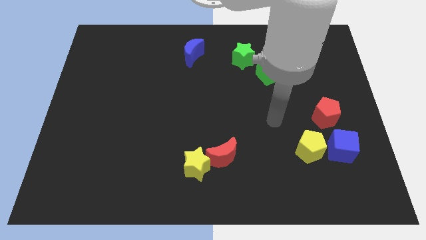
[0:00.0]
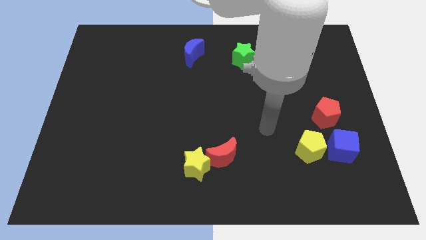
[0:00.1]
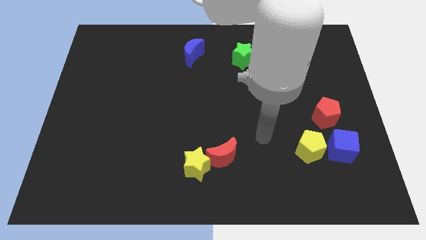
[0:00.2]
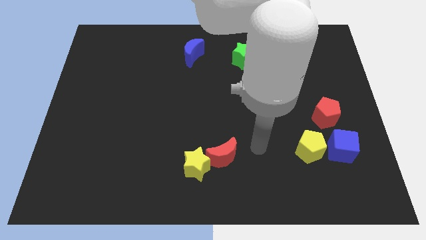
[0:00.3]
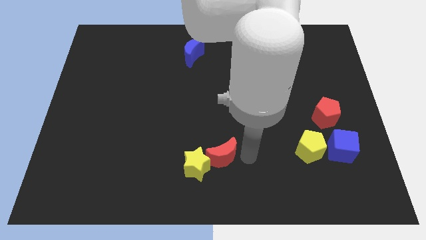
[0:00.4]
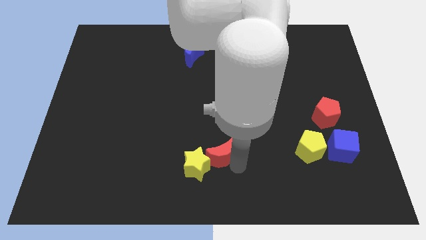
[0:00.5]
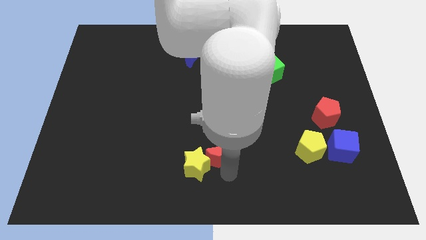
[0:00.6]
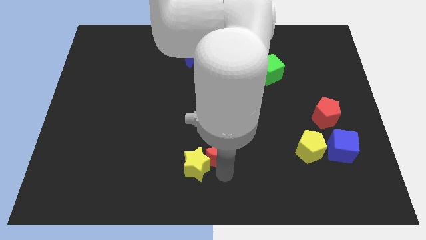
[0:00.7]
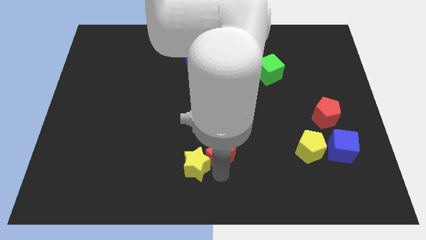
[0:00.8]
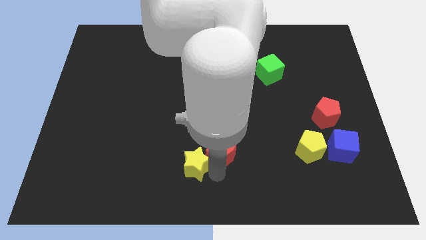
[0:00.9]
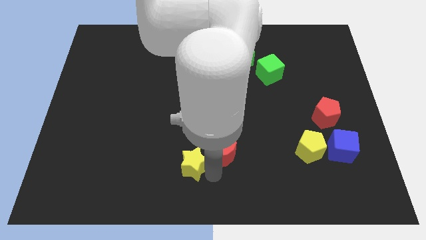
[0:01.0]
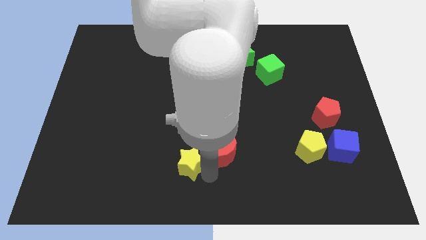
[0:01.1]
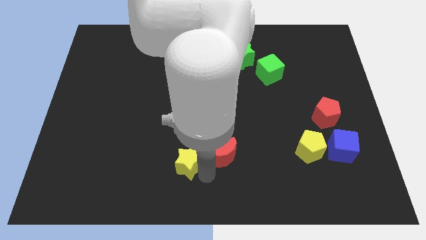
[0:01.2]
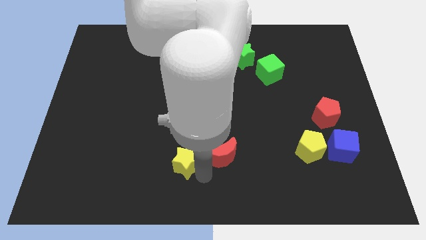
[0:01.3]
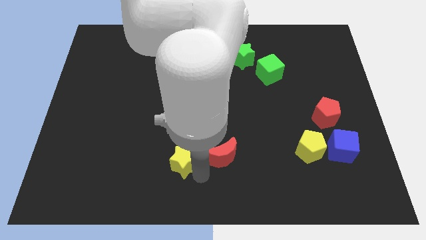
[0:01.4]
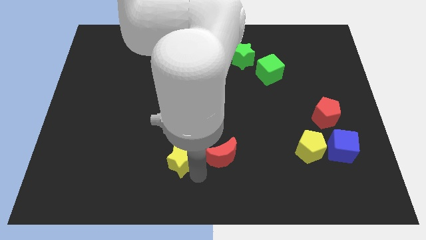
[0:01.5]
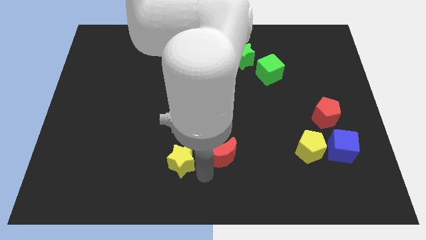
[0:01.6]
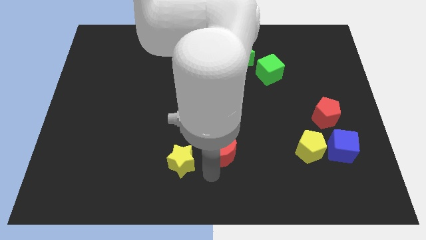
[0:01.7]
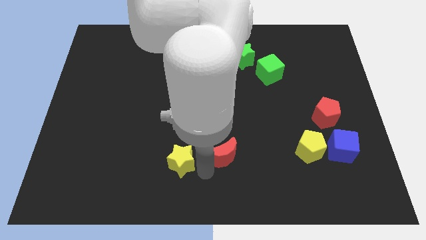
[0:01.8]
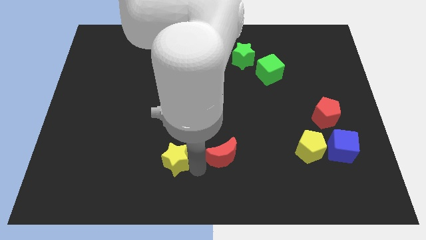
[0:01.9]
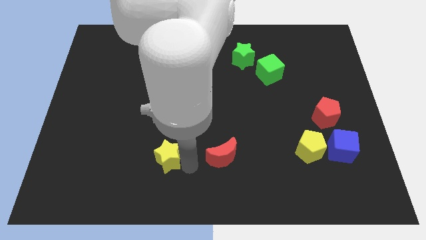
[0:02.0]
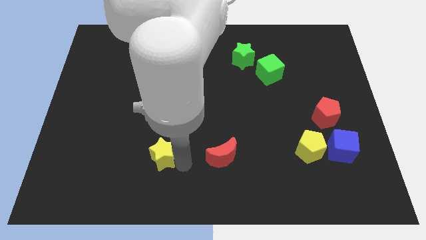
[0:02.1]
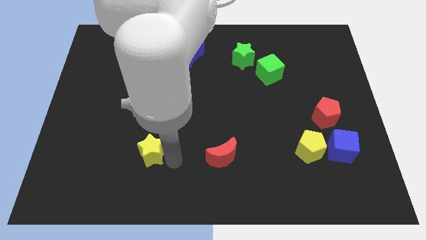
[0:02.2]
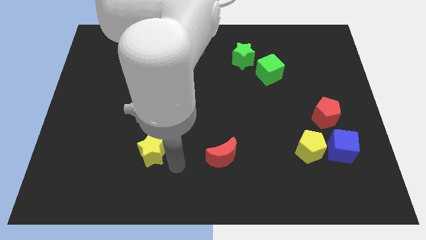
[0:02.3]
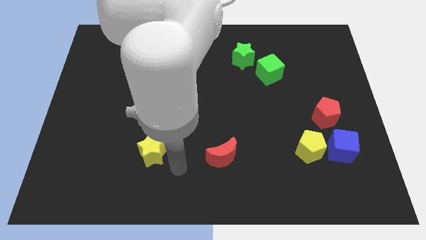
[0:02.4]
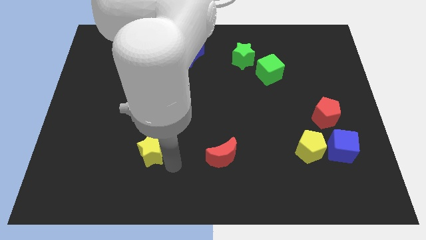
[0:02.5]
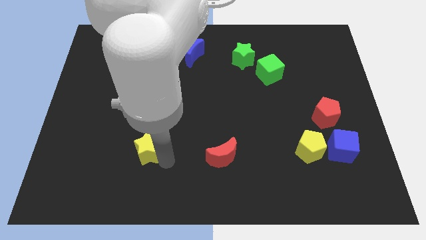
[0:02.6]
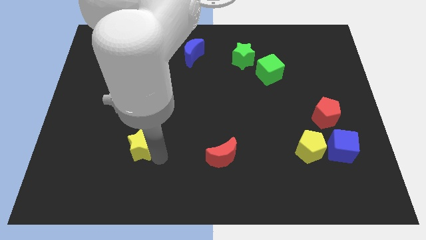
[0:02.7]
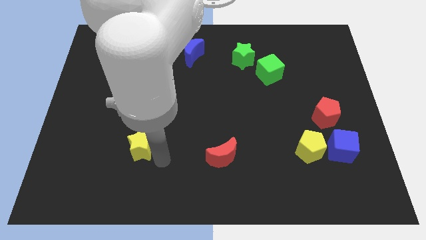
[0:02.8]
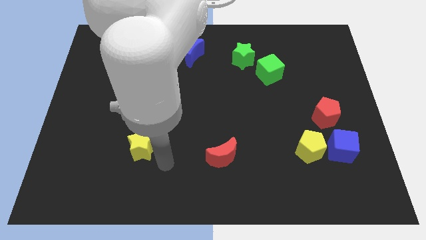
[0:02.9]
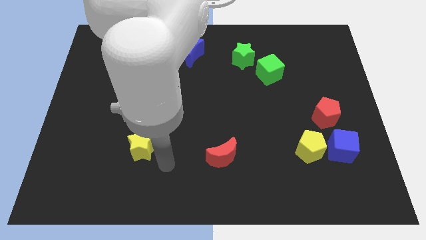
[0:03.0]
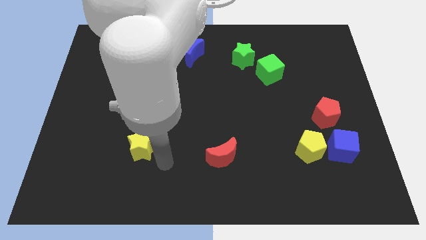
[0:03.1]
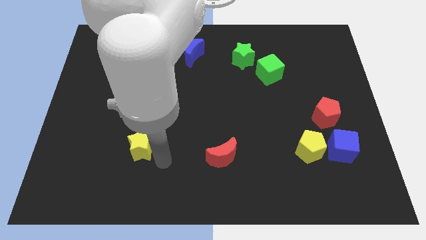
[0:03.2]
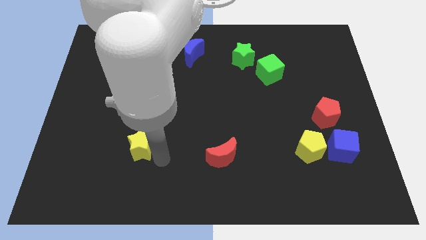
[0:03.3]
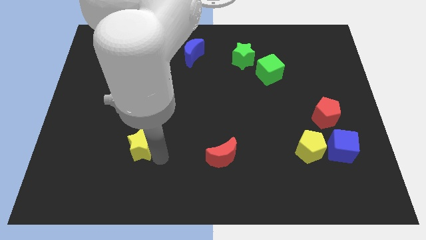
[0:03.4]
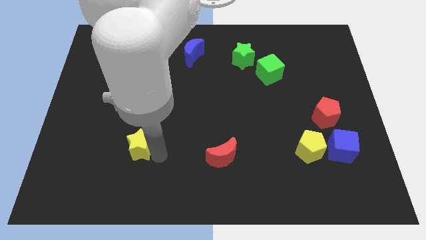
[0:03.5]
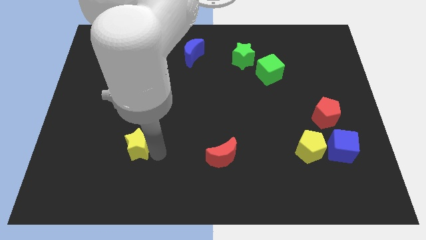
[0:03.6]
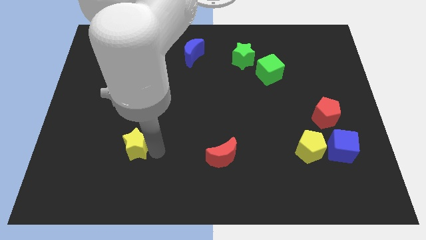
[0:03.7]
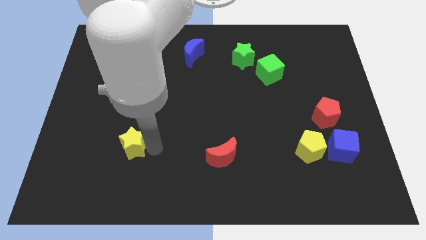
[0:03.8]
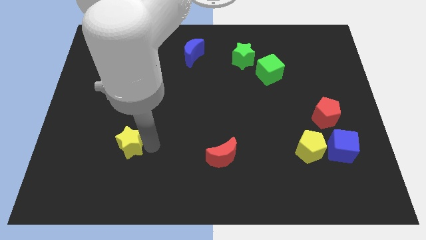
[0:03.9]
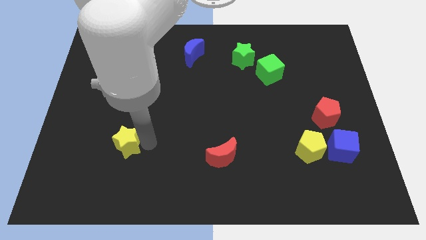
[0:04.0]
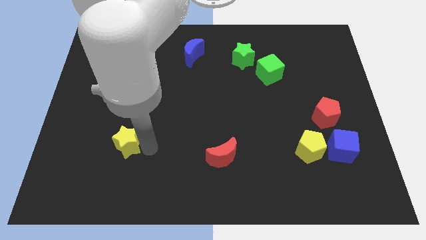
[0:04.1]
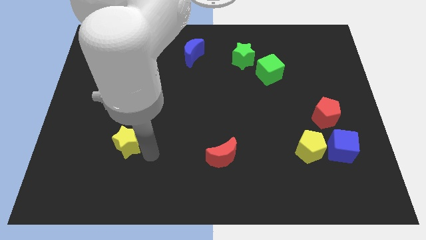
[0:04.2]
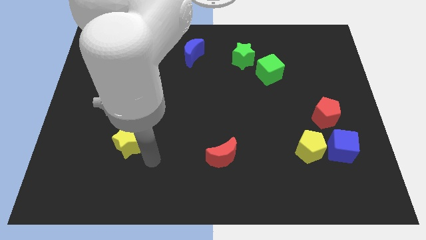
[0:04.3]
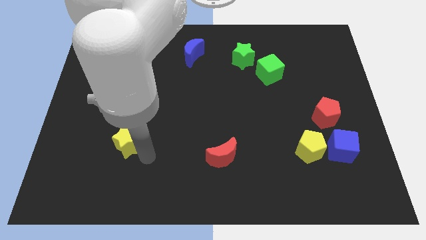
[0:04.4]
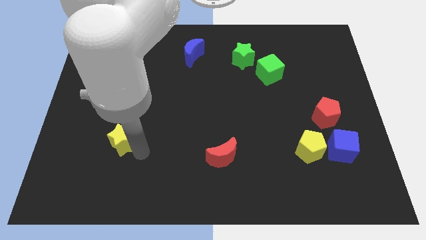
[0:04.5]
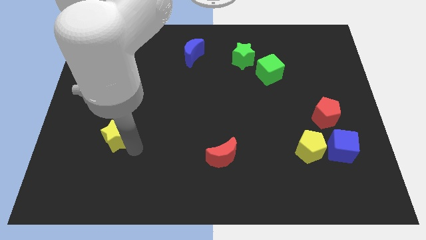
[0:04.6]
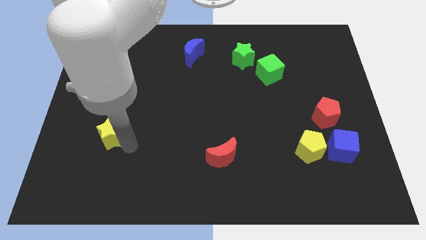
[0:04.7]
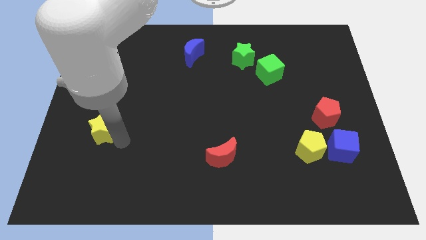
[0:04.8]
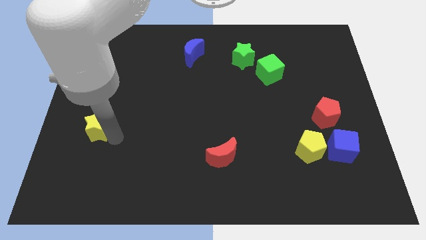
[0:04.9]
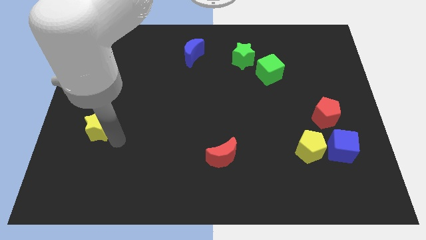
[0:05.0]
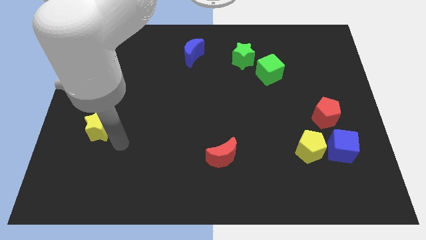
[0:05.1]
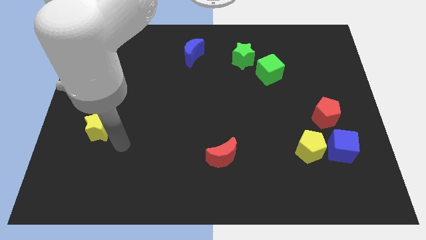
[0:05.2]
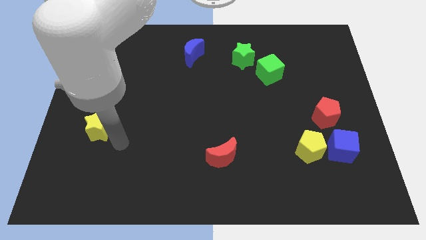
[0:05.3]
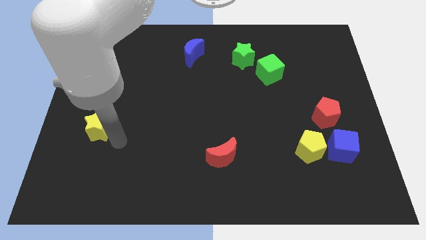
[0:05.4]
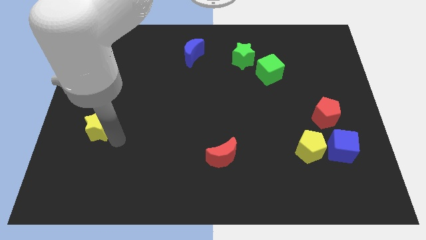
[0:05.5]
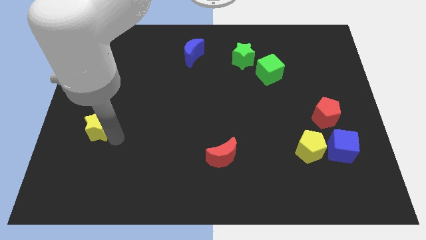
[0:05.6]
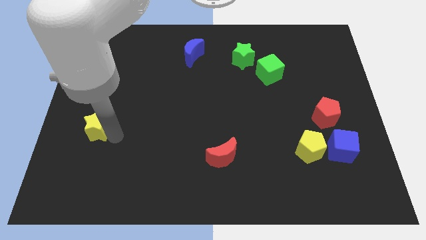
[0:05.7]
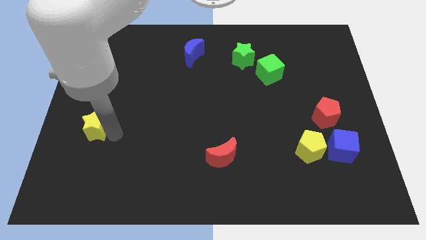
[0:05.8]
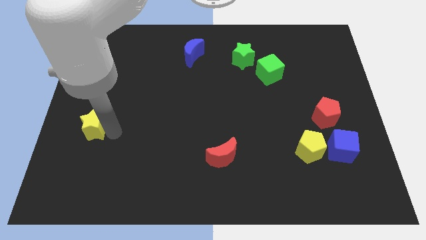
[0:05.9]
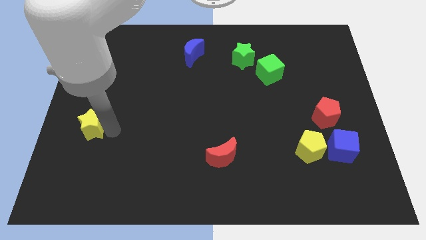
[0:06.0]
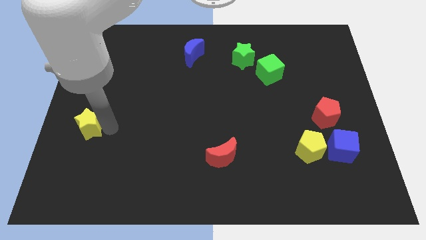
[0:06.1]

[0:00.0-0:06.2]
slide the yellow star to the center left
